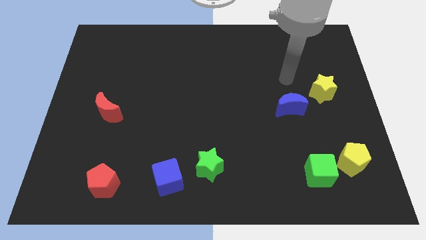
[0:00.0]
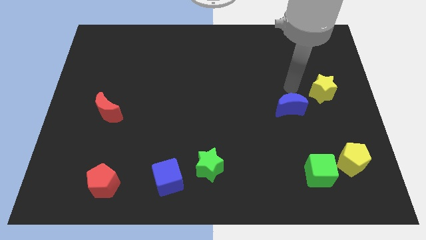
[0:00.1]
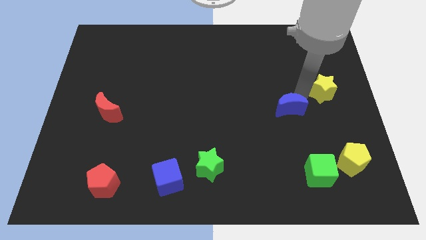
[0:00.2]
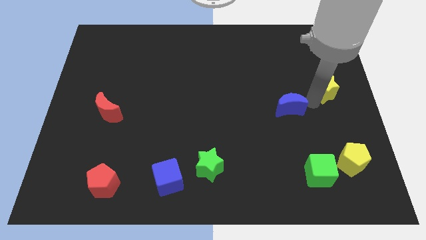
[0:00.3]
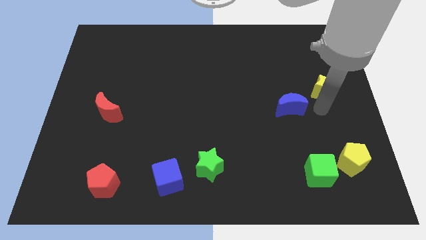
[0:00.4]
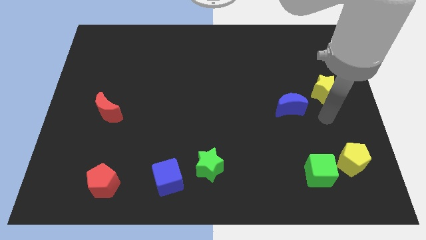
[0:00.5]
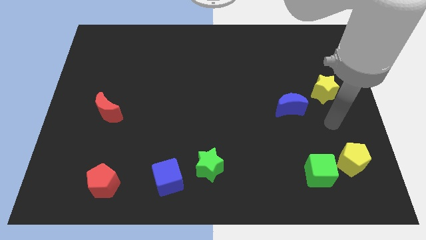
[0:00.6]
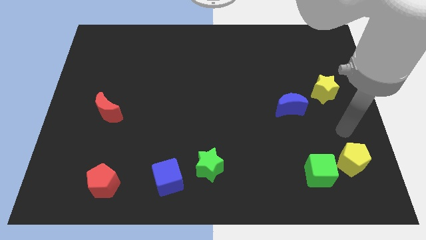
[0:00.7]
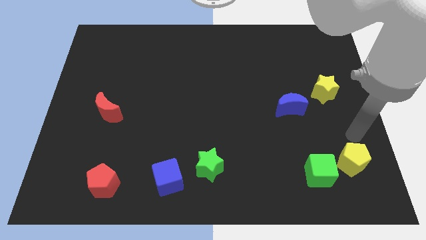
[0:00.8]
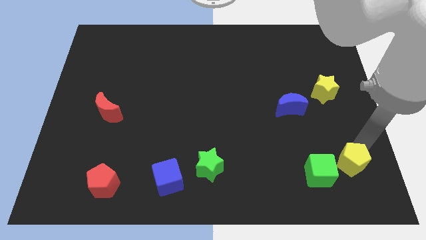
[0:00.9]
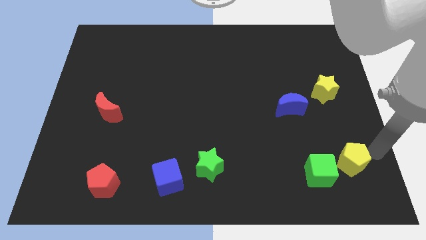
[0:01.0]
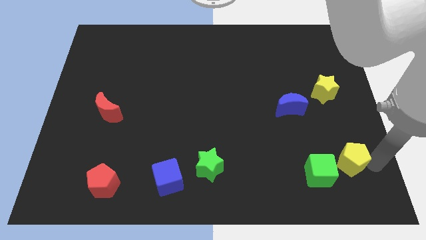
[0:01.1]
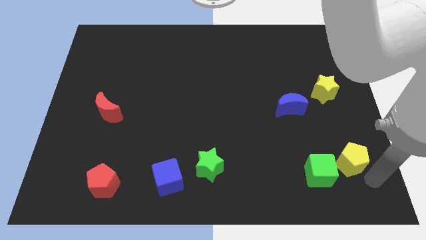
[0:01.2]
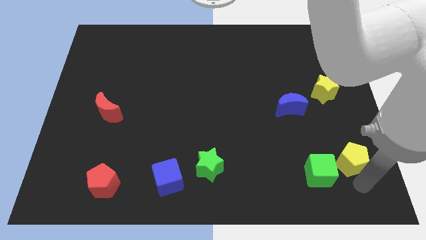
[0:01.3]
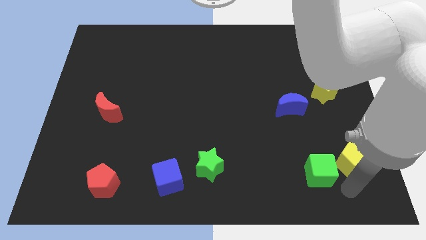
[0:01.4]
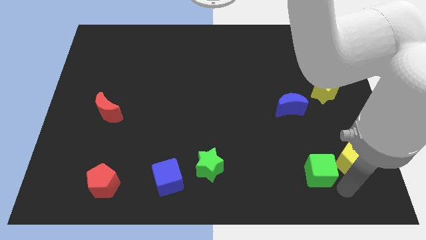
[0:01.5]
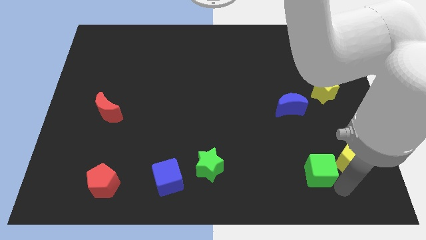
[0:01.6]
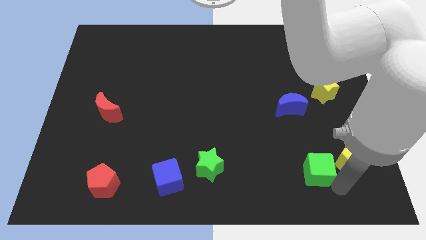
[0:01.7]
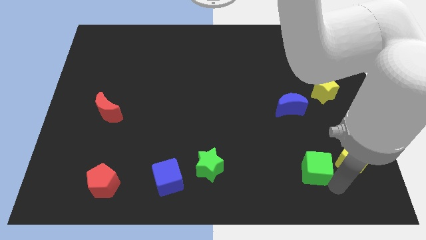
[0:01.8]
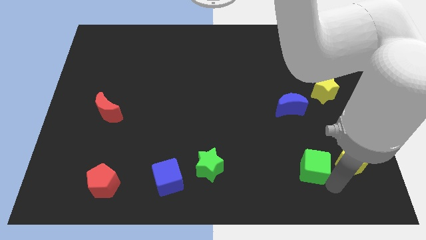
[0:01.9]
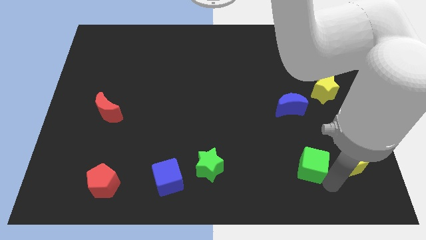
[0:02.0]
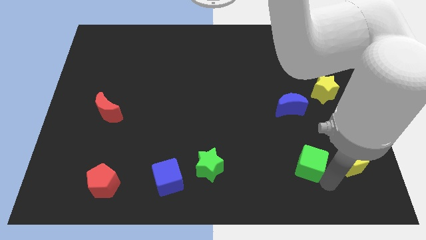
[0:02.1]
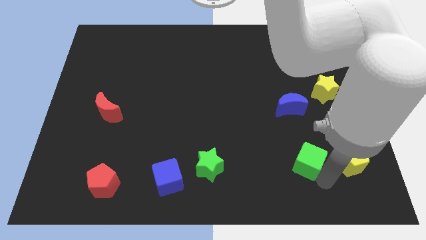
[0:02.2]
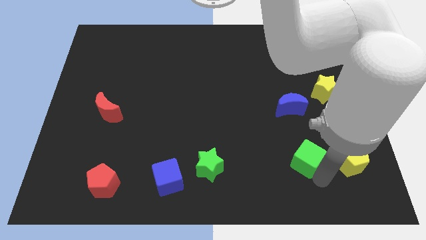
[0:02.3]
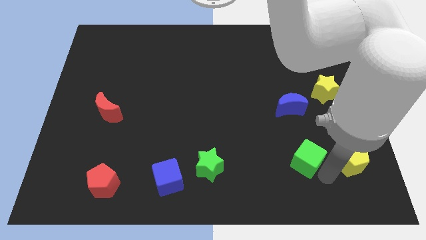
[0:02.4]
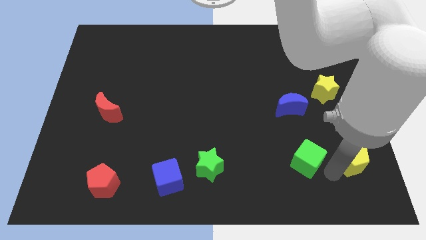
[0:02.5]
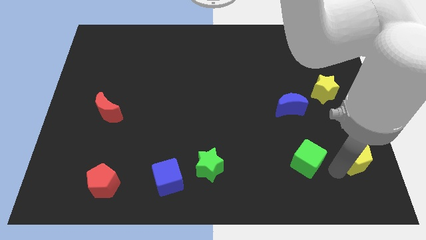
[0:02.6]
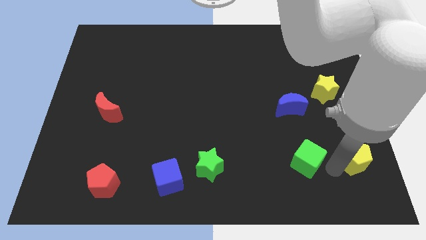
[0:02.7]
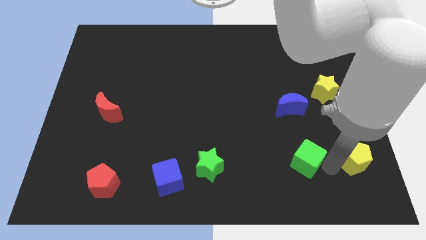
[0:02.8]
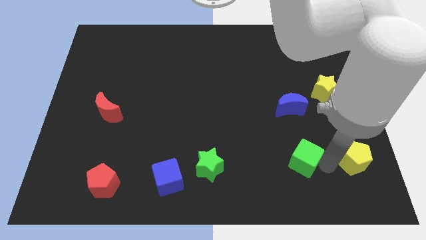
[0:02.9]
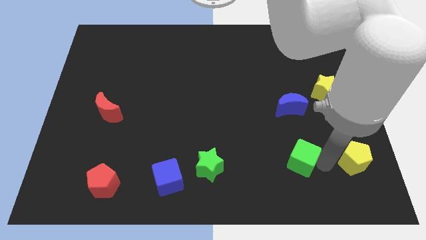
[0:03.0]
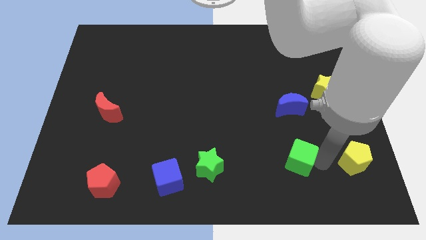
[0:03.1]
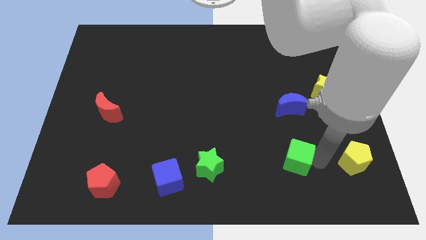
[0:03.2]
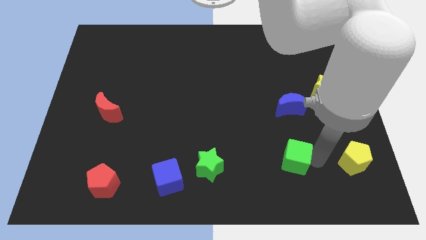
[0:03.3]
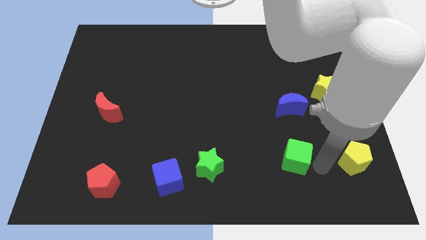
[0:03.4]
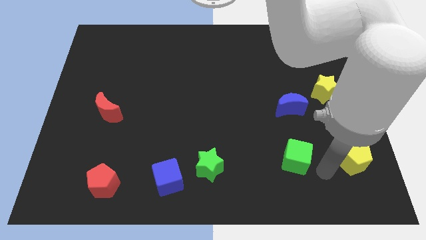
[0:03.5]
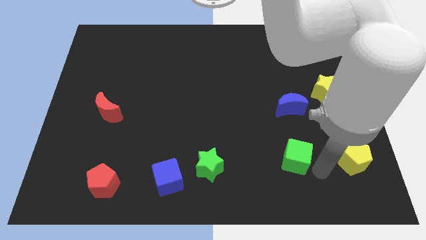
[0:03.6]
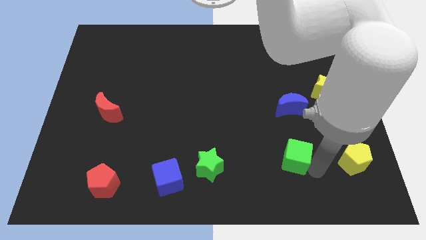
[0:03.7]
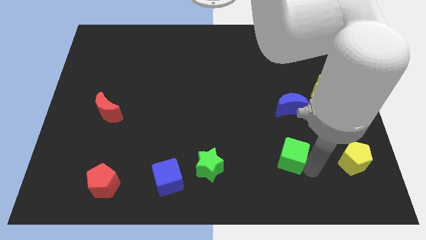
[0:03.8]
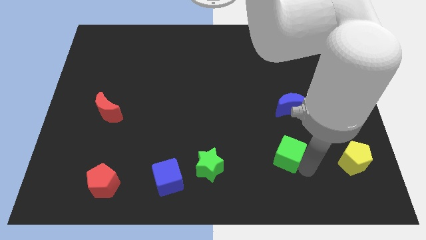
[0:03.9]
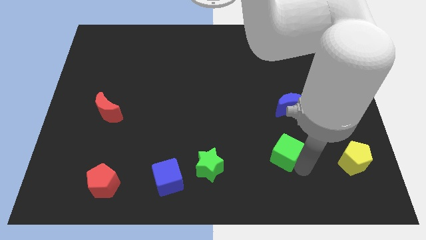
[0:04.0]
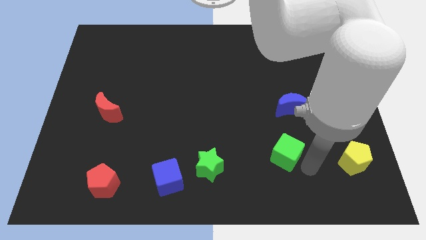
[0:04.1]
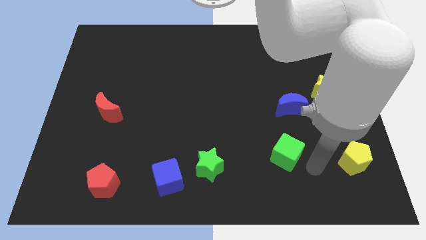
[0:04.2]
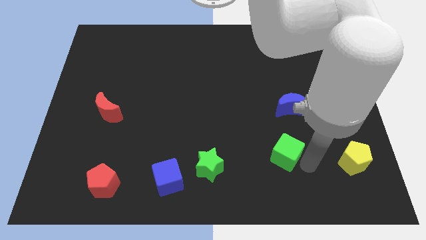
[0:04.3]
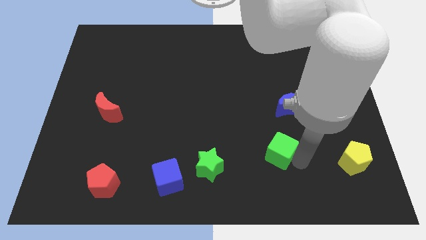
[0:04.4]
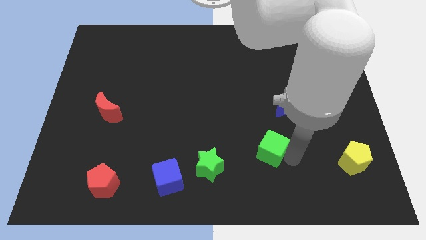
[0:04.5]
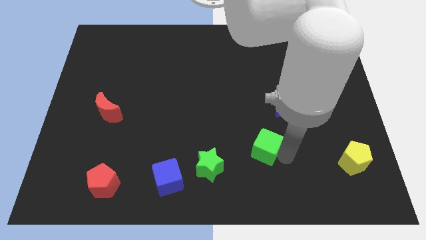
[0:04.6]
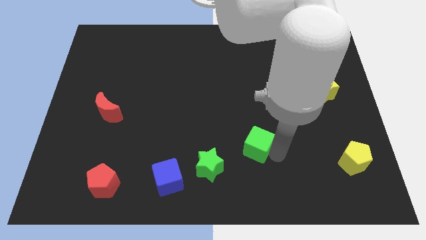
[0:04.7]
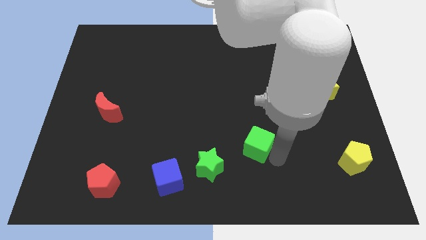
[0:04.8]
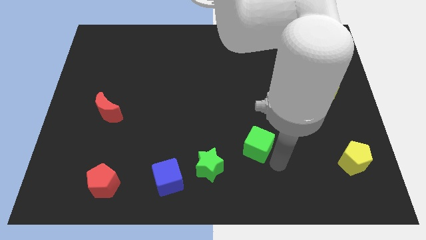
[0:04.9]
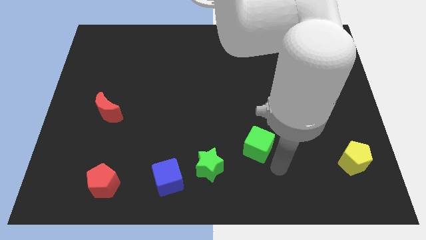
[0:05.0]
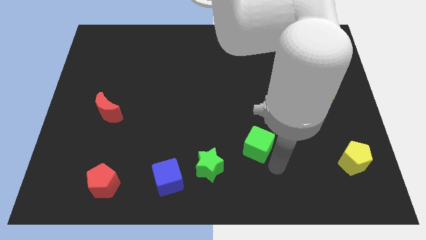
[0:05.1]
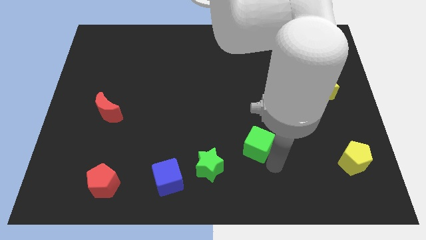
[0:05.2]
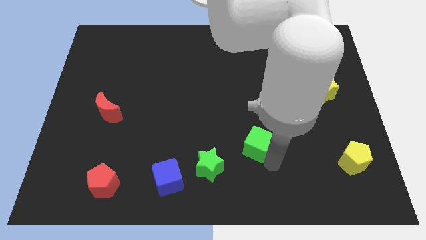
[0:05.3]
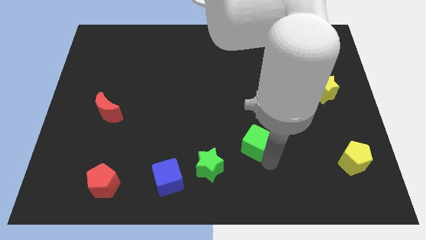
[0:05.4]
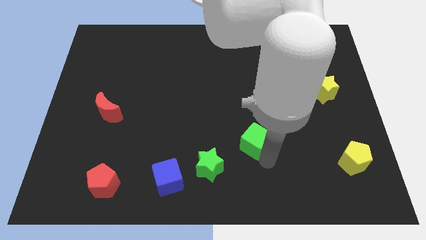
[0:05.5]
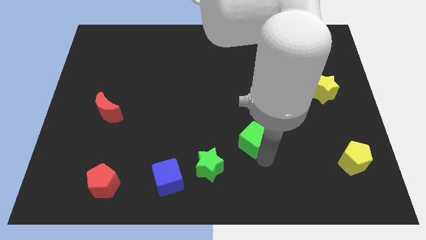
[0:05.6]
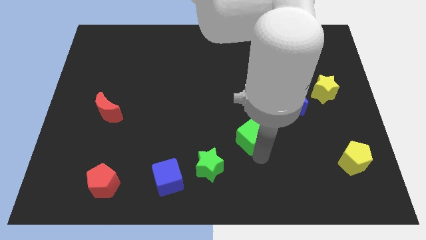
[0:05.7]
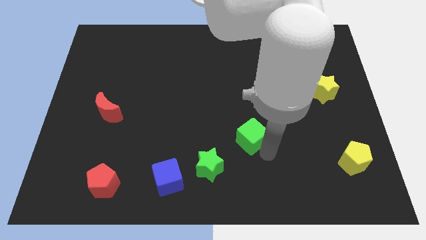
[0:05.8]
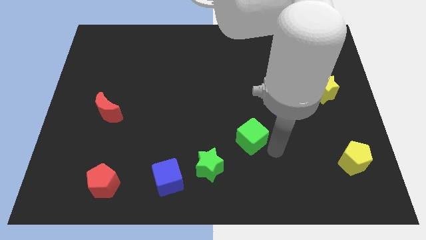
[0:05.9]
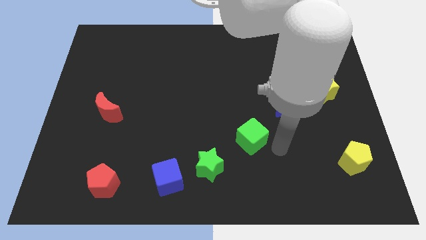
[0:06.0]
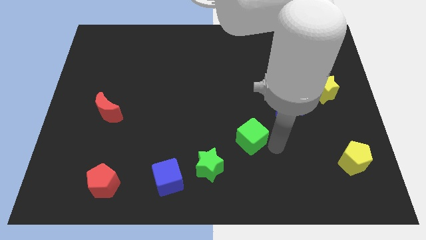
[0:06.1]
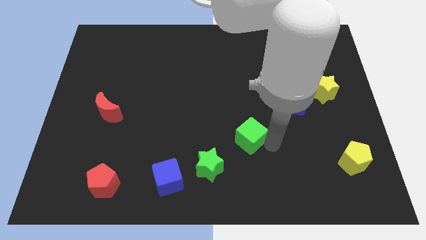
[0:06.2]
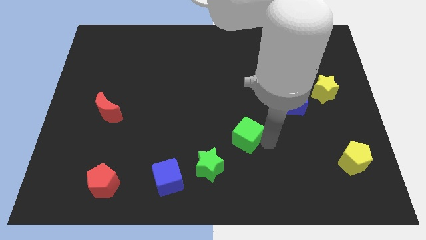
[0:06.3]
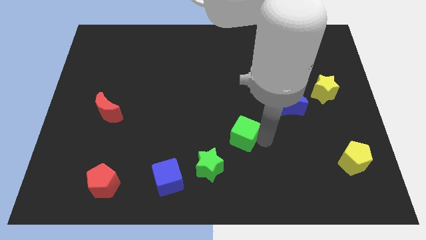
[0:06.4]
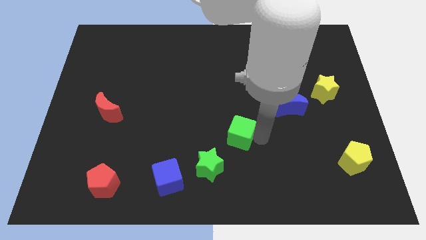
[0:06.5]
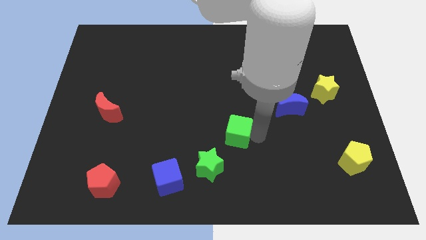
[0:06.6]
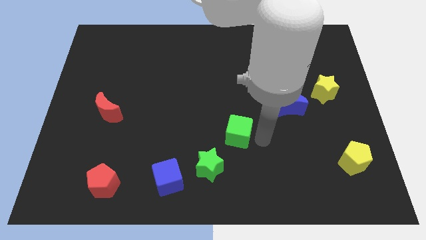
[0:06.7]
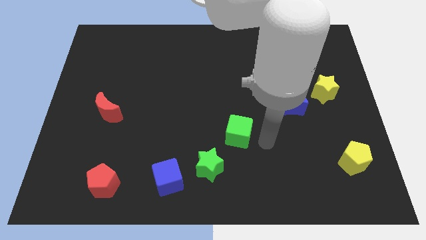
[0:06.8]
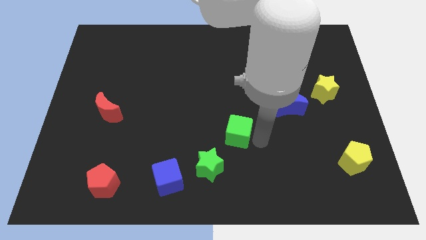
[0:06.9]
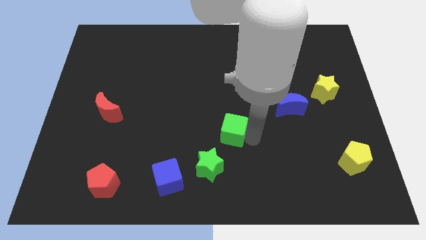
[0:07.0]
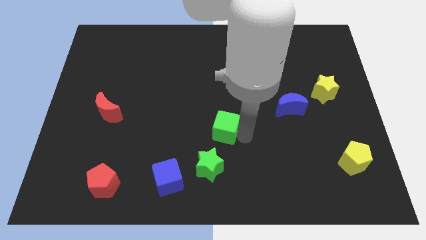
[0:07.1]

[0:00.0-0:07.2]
push the green cube to the top side of the green star

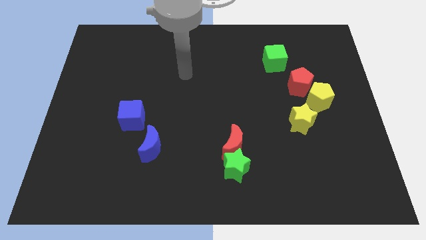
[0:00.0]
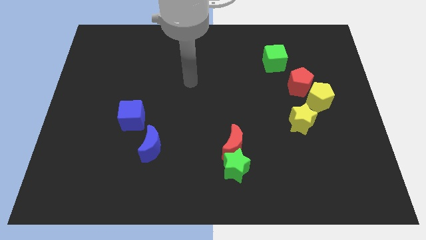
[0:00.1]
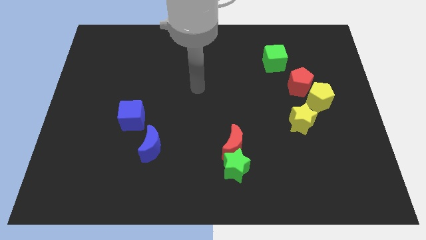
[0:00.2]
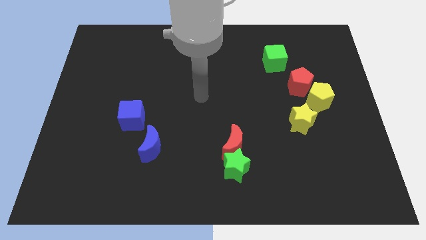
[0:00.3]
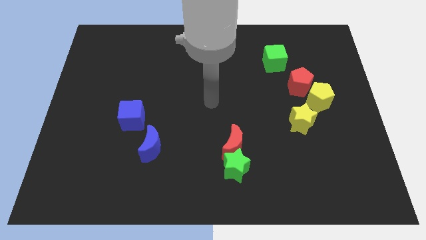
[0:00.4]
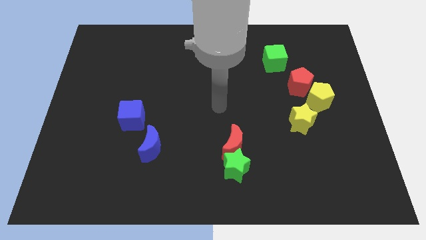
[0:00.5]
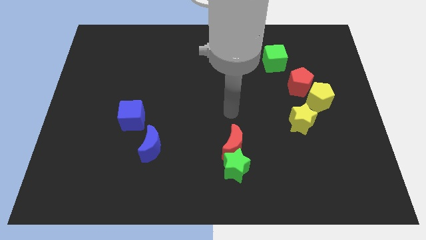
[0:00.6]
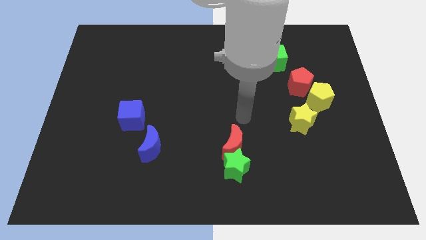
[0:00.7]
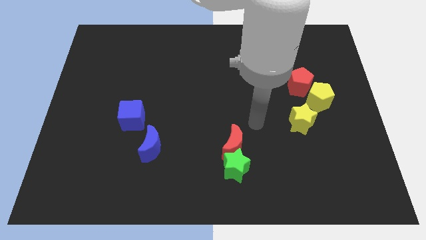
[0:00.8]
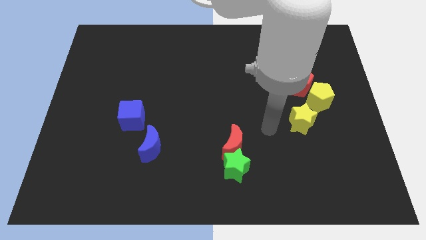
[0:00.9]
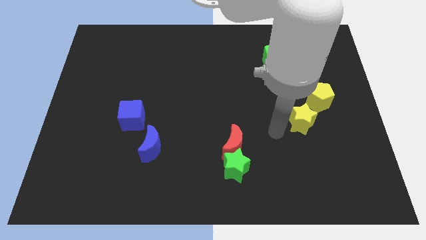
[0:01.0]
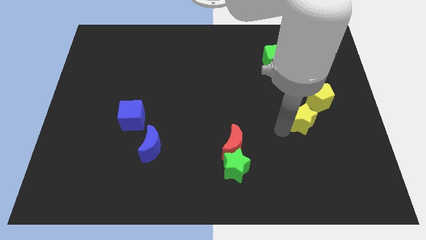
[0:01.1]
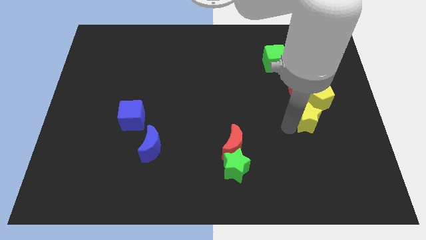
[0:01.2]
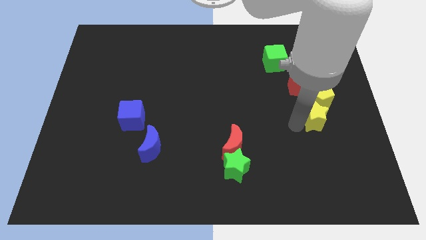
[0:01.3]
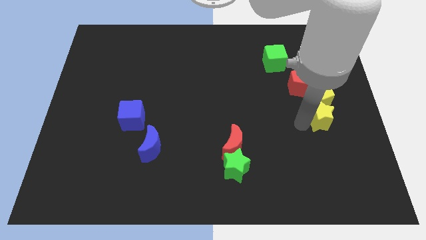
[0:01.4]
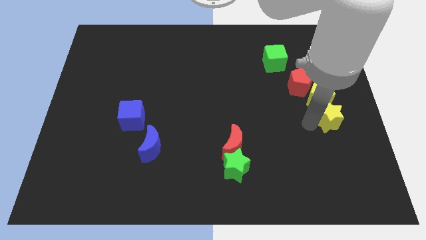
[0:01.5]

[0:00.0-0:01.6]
slide the yellow star to the bottom right side of the red pentagon
